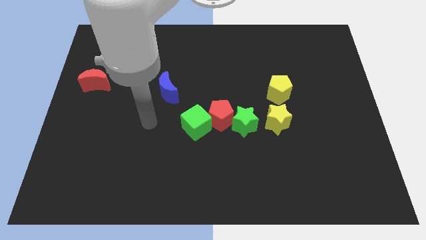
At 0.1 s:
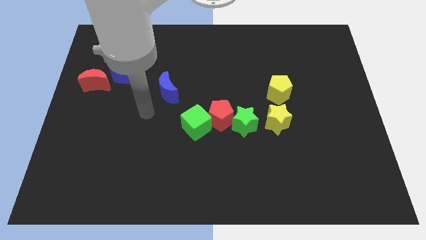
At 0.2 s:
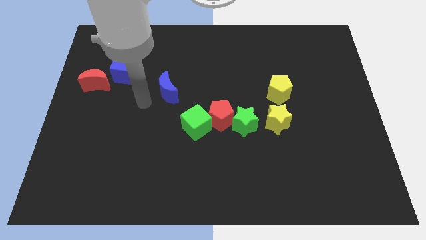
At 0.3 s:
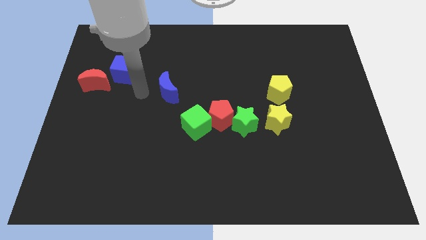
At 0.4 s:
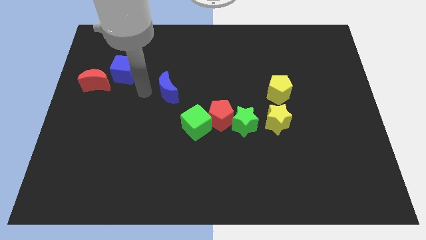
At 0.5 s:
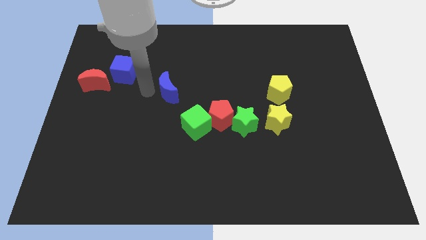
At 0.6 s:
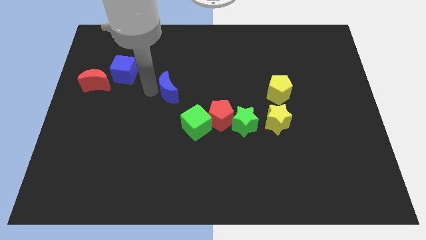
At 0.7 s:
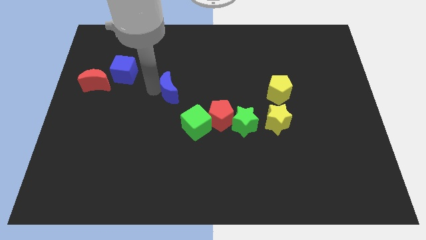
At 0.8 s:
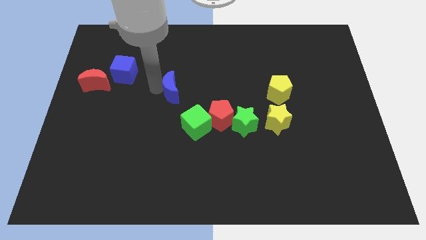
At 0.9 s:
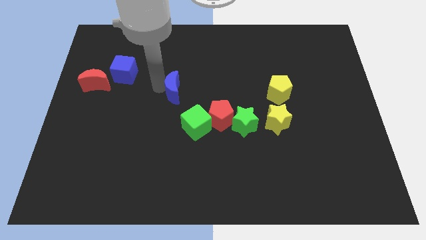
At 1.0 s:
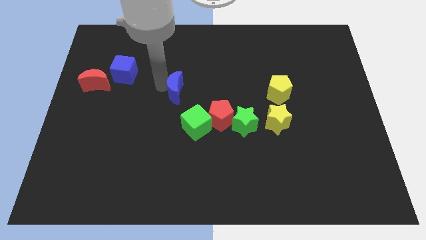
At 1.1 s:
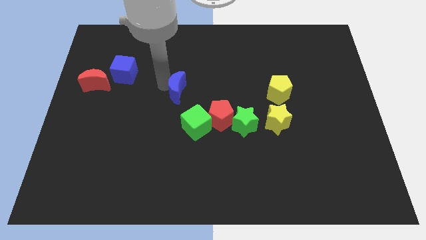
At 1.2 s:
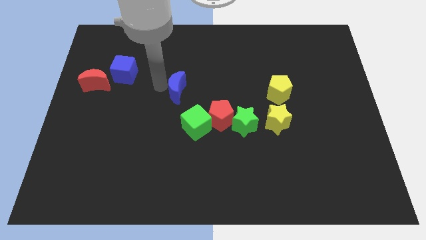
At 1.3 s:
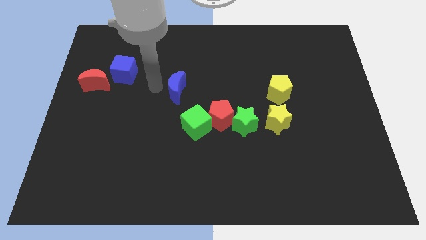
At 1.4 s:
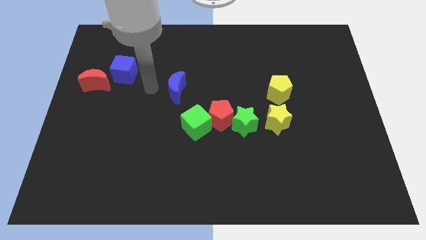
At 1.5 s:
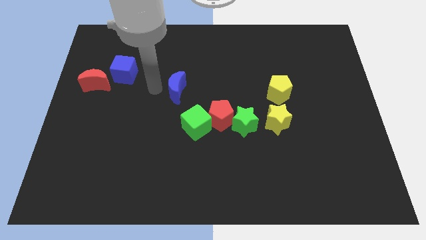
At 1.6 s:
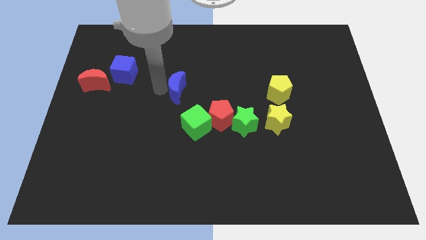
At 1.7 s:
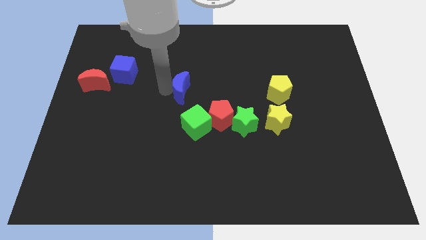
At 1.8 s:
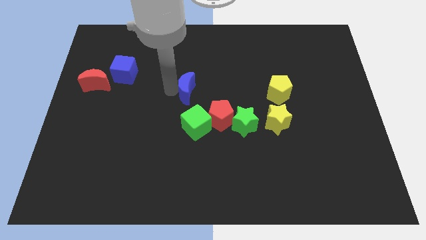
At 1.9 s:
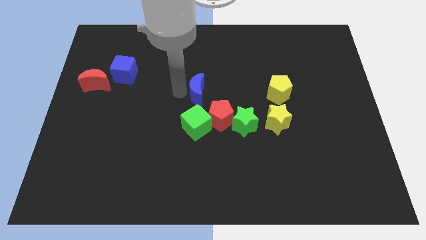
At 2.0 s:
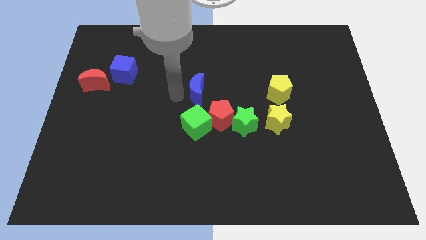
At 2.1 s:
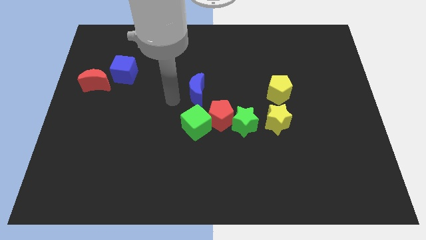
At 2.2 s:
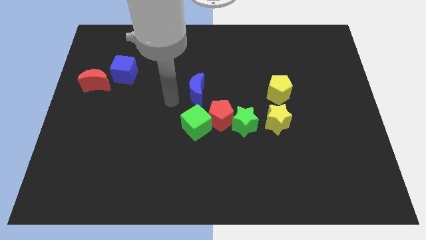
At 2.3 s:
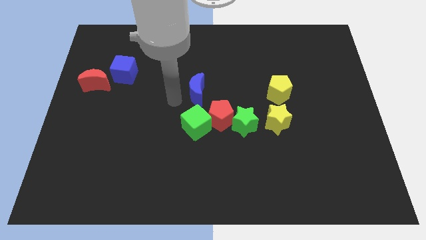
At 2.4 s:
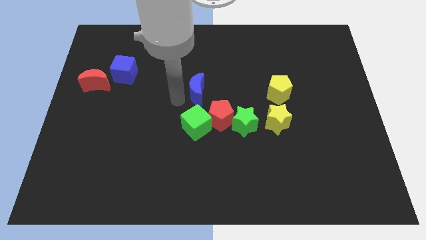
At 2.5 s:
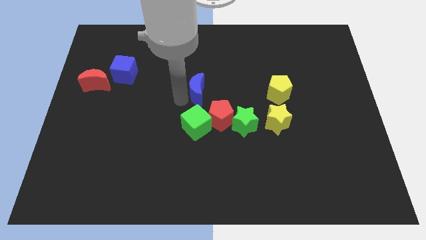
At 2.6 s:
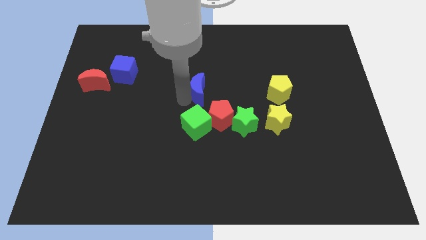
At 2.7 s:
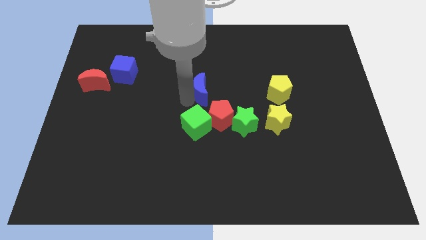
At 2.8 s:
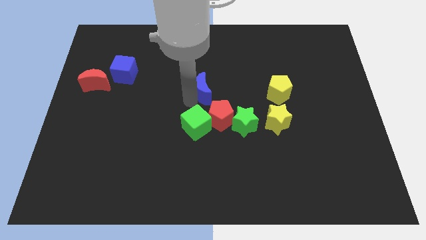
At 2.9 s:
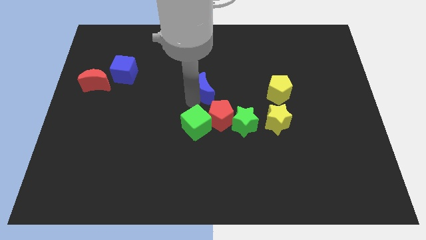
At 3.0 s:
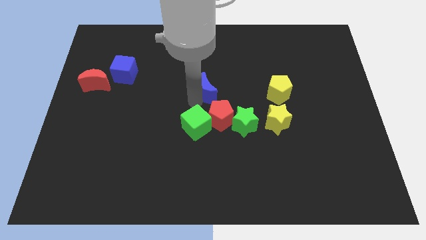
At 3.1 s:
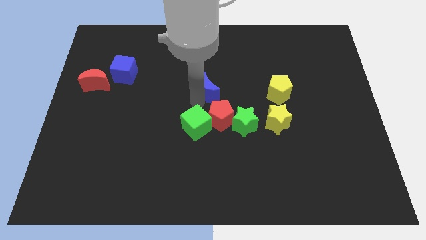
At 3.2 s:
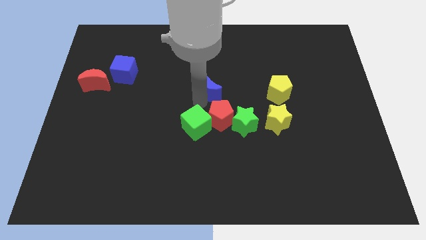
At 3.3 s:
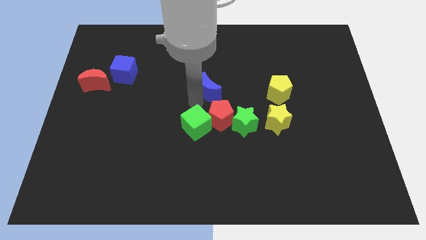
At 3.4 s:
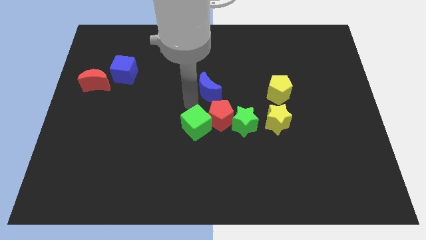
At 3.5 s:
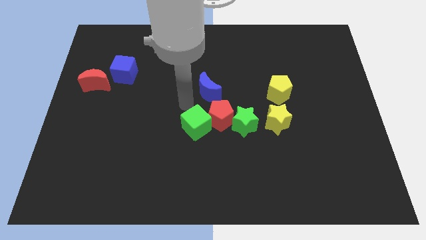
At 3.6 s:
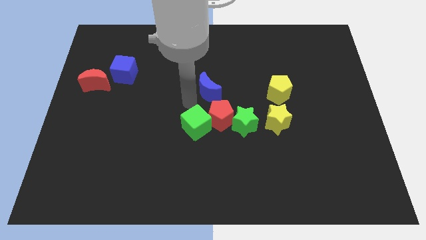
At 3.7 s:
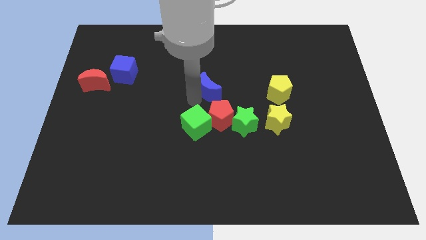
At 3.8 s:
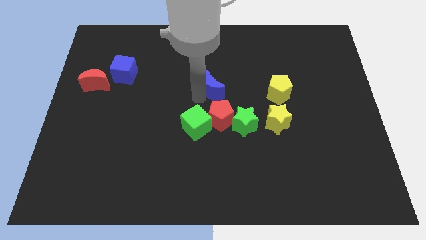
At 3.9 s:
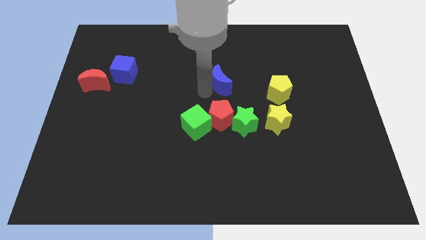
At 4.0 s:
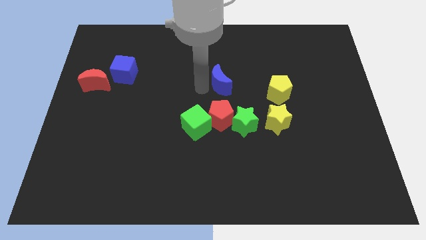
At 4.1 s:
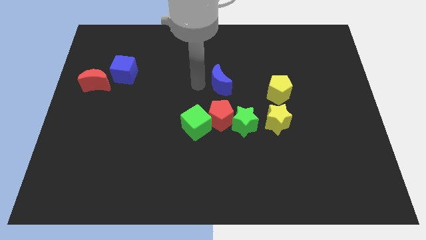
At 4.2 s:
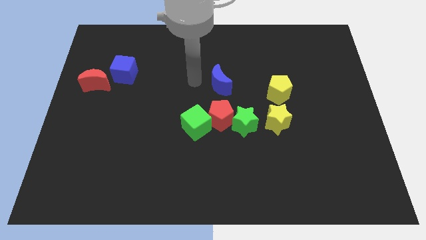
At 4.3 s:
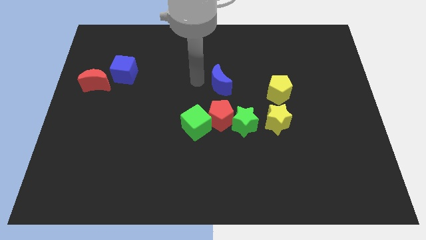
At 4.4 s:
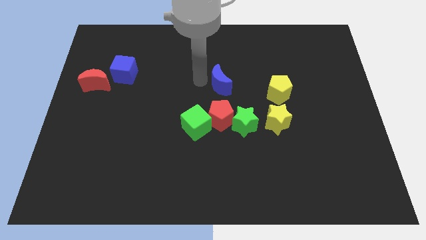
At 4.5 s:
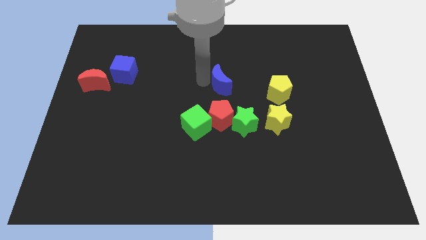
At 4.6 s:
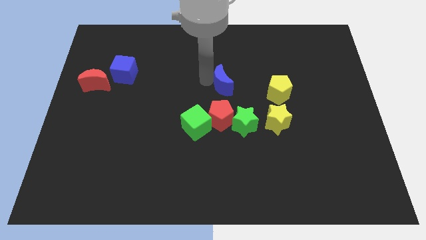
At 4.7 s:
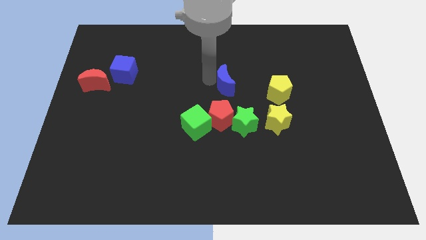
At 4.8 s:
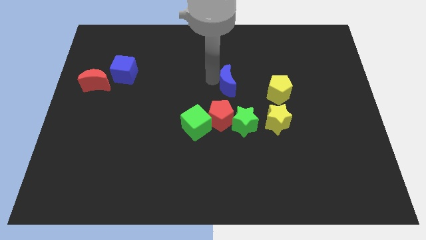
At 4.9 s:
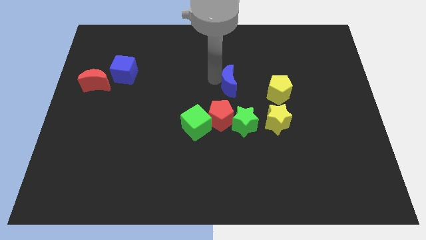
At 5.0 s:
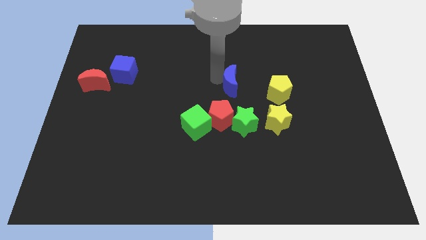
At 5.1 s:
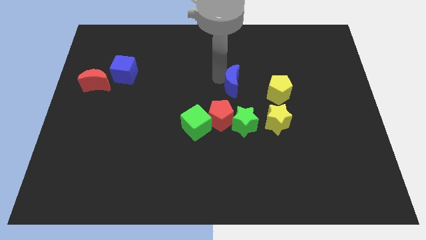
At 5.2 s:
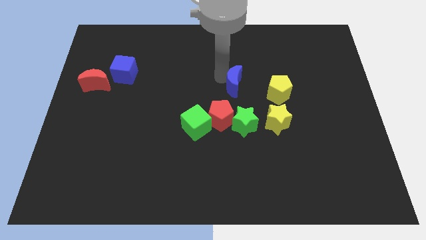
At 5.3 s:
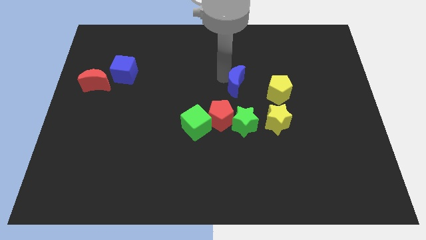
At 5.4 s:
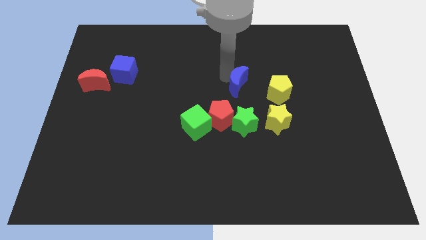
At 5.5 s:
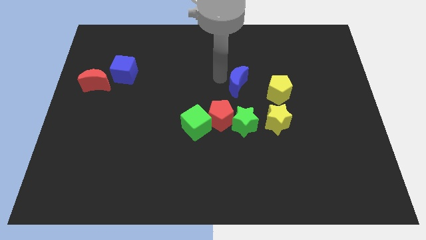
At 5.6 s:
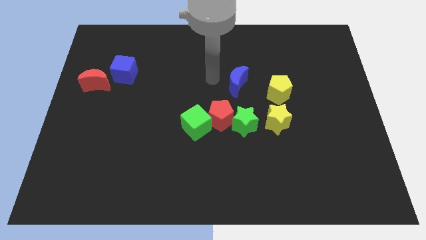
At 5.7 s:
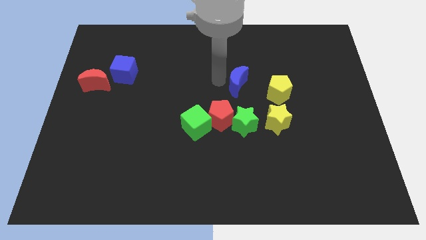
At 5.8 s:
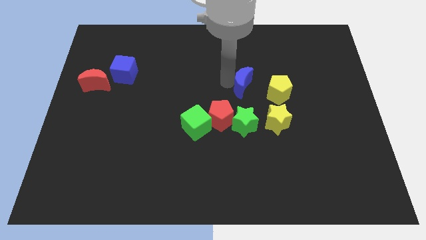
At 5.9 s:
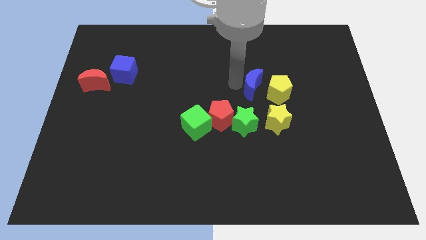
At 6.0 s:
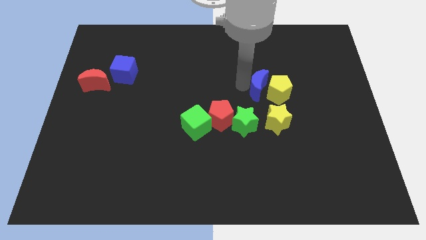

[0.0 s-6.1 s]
put the blue moon to the yellow pentagon

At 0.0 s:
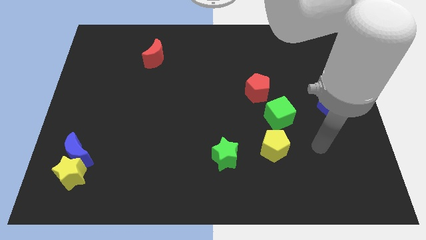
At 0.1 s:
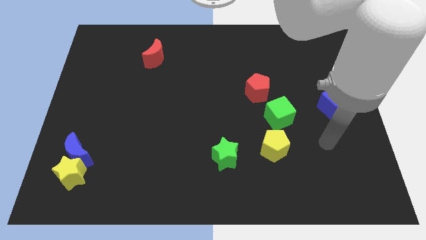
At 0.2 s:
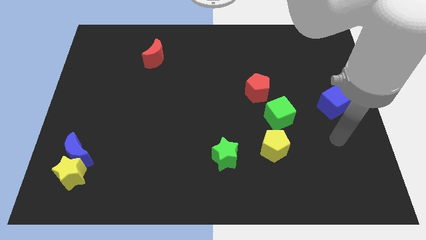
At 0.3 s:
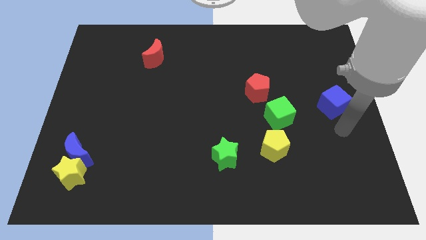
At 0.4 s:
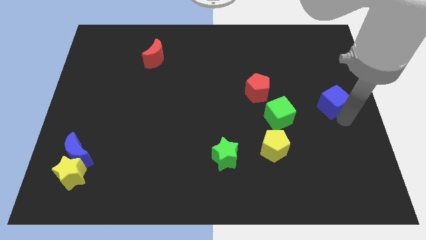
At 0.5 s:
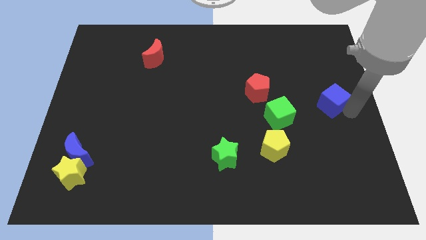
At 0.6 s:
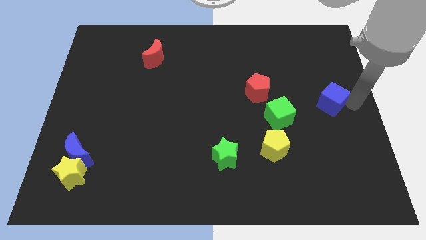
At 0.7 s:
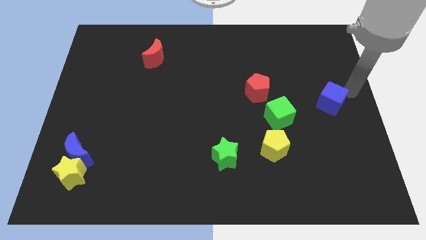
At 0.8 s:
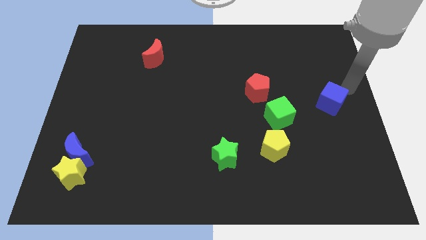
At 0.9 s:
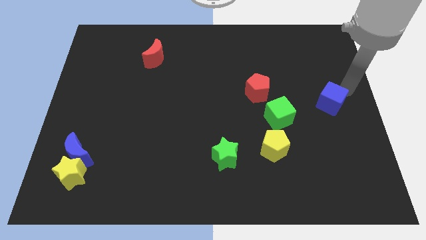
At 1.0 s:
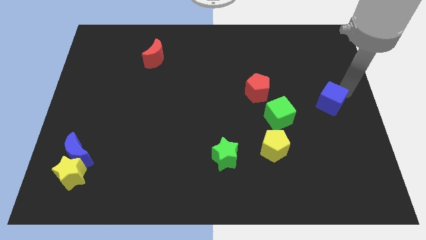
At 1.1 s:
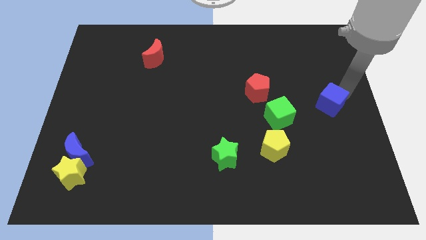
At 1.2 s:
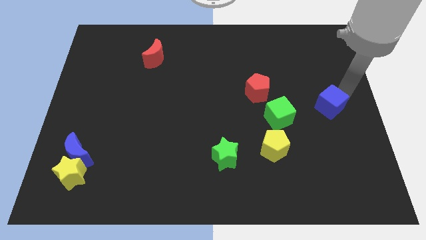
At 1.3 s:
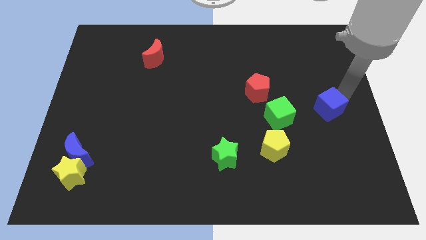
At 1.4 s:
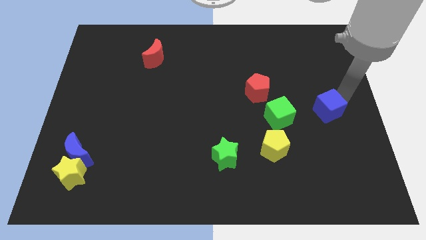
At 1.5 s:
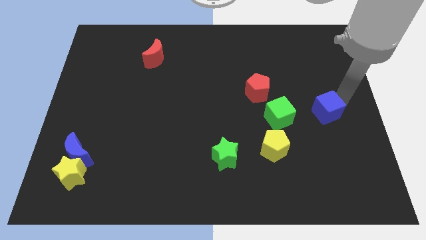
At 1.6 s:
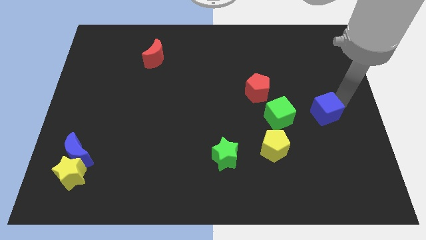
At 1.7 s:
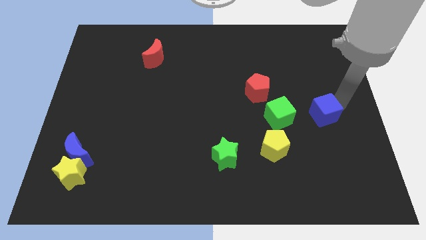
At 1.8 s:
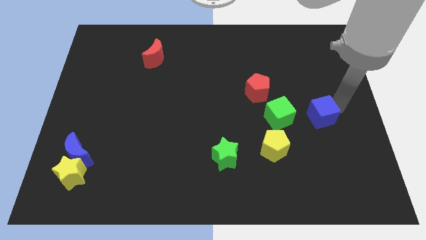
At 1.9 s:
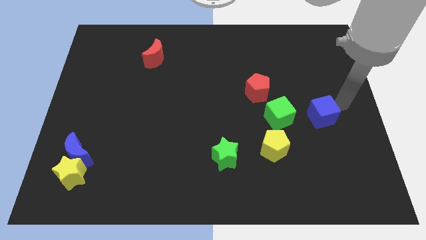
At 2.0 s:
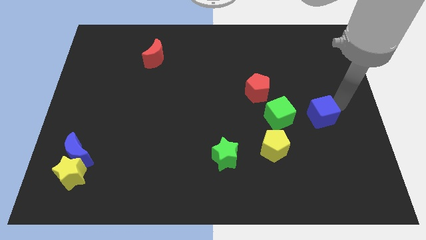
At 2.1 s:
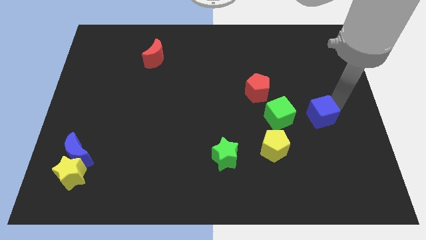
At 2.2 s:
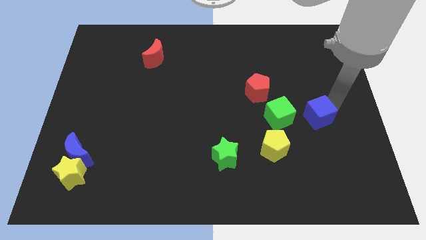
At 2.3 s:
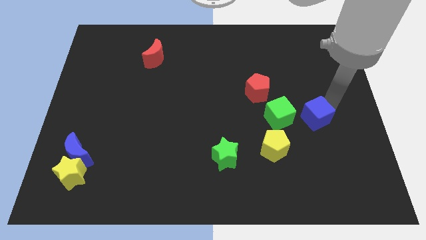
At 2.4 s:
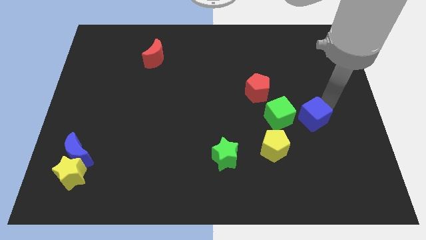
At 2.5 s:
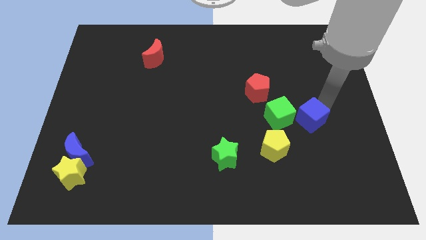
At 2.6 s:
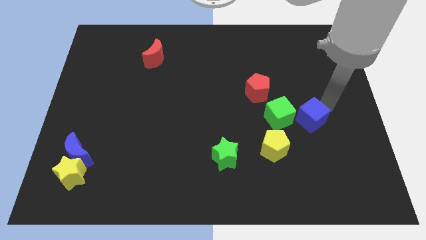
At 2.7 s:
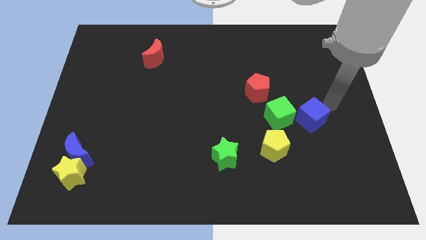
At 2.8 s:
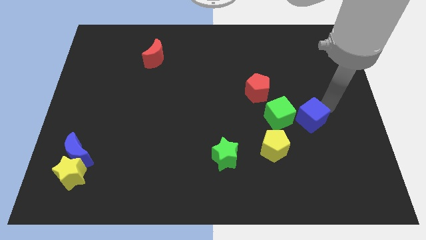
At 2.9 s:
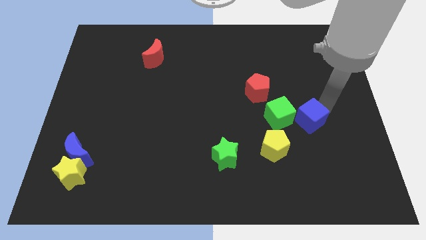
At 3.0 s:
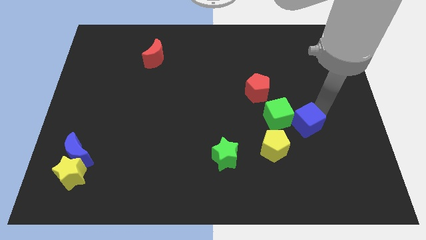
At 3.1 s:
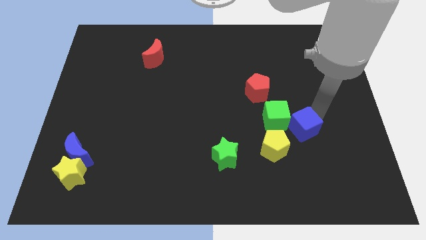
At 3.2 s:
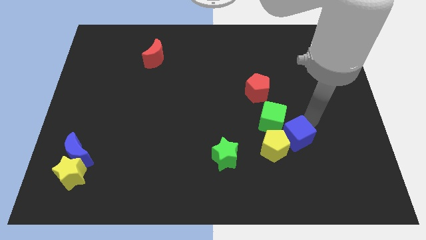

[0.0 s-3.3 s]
push the blue cube towards the yellow pentagon
